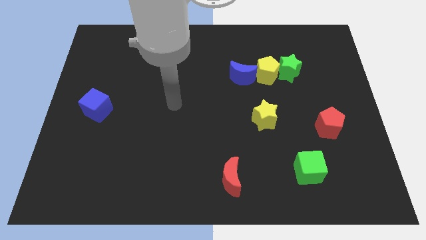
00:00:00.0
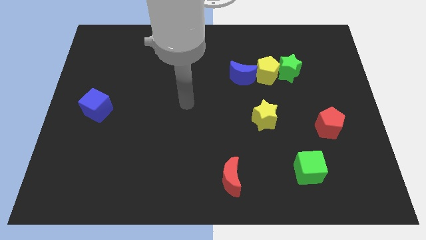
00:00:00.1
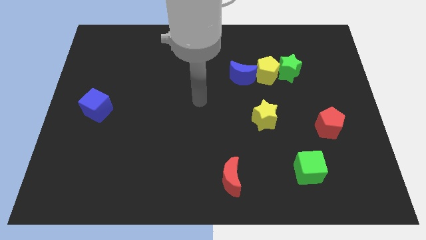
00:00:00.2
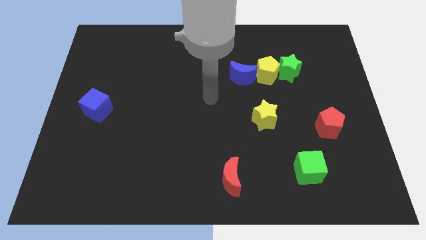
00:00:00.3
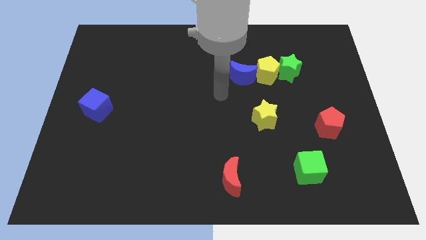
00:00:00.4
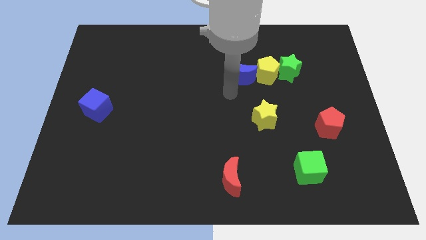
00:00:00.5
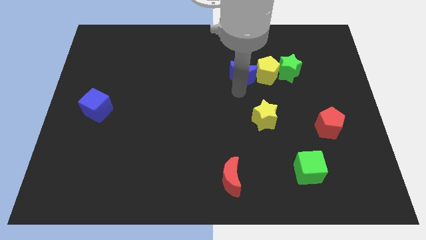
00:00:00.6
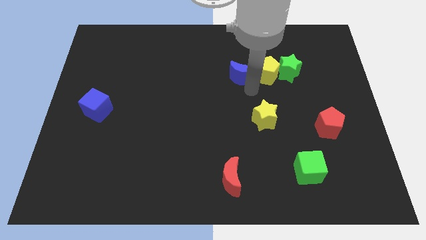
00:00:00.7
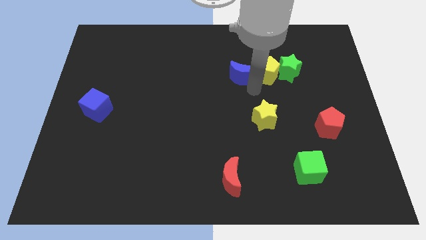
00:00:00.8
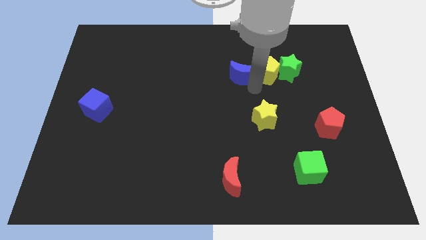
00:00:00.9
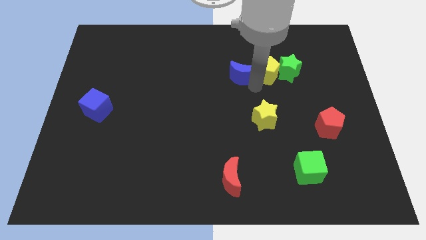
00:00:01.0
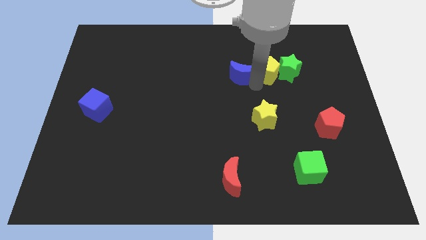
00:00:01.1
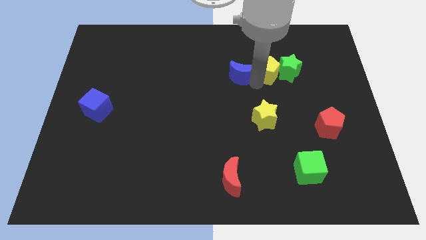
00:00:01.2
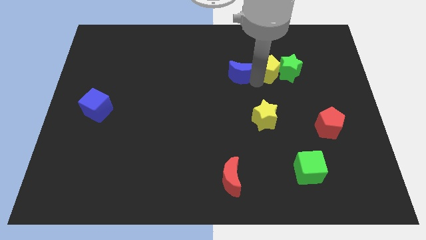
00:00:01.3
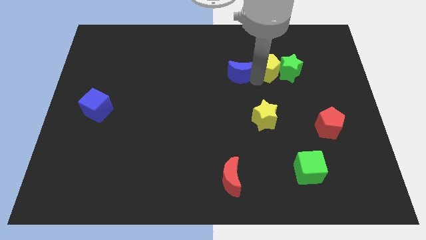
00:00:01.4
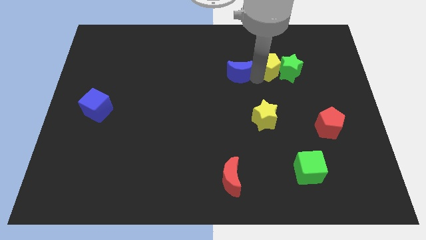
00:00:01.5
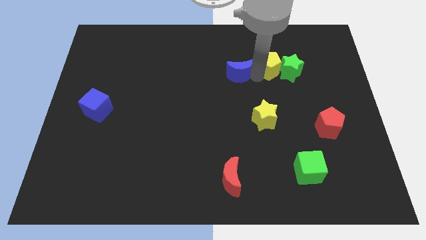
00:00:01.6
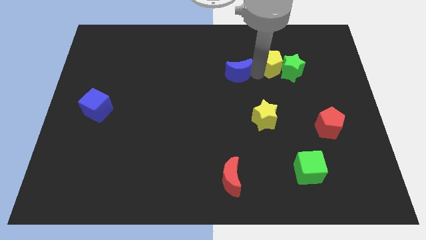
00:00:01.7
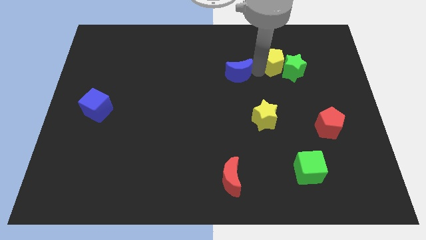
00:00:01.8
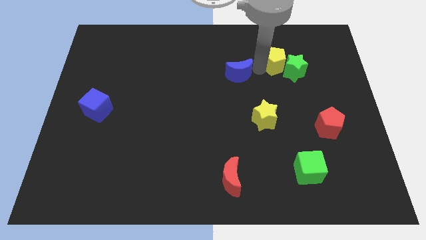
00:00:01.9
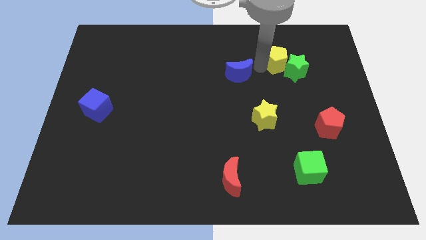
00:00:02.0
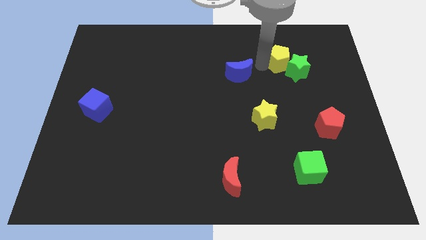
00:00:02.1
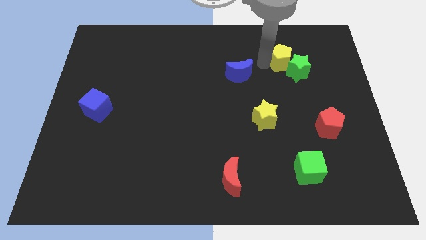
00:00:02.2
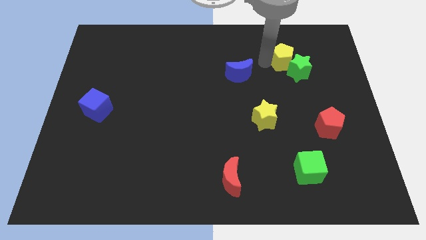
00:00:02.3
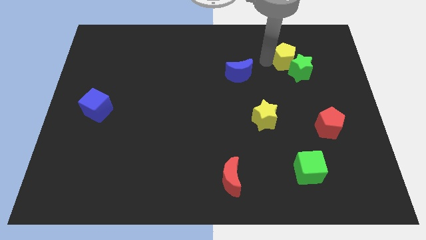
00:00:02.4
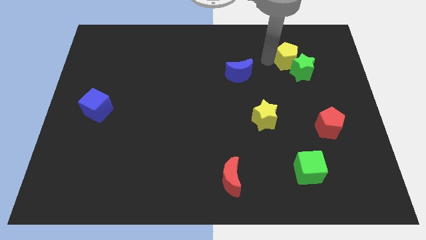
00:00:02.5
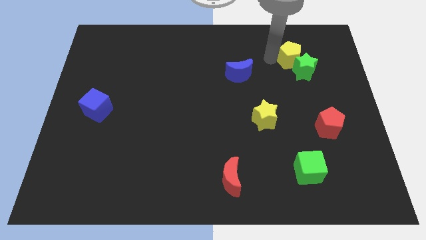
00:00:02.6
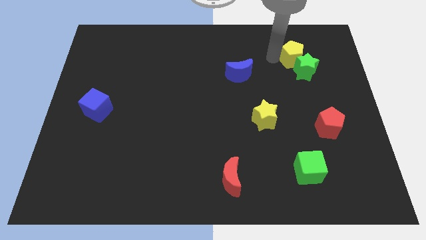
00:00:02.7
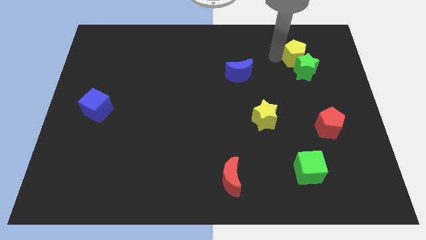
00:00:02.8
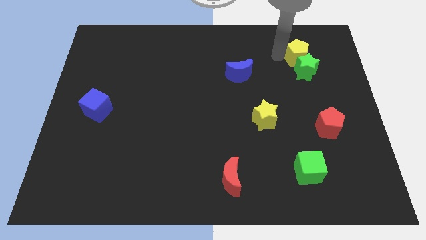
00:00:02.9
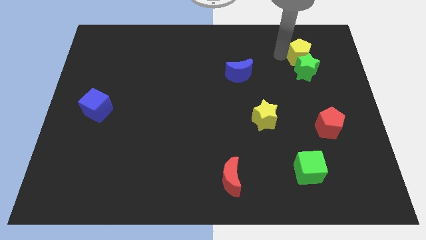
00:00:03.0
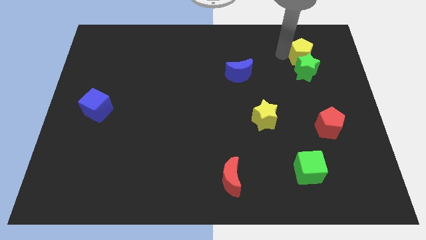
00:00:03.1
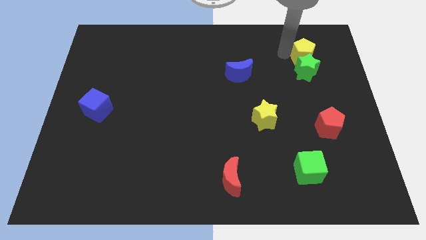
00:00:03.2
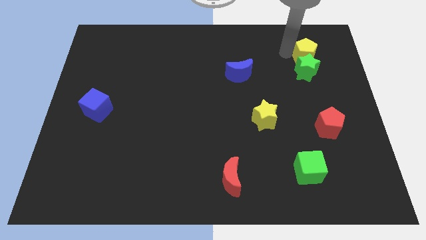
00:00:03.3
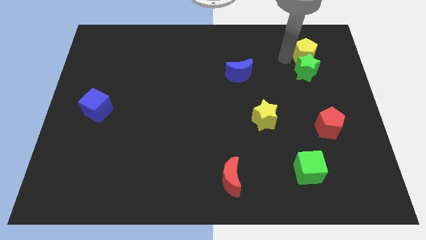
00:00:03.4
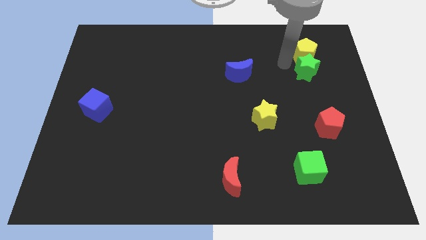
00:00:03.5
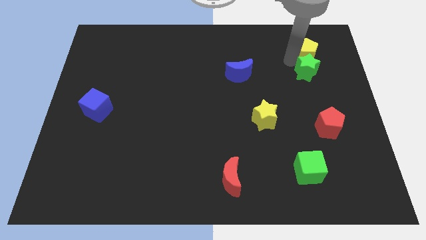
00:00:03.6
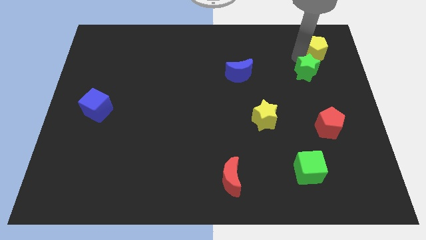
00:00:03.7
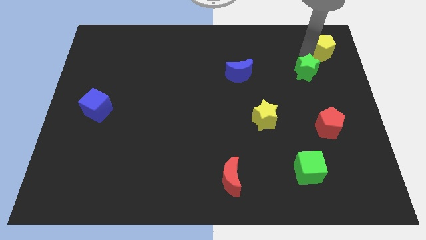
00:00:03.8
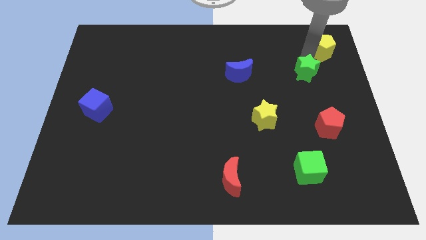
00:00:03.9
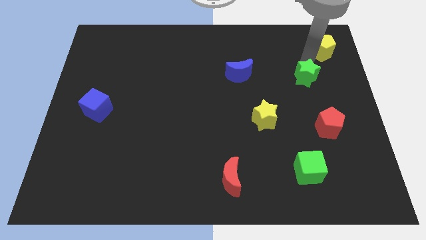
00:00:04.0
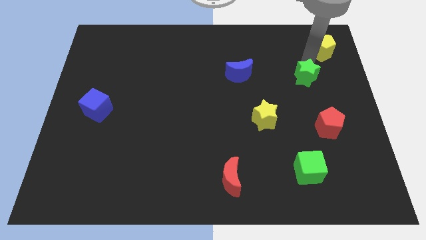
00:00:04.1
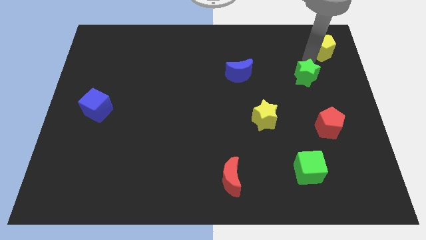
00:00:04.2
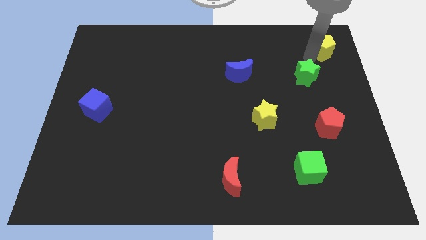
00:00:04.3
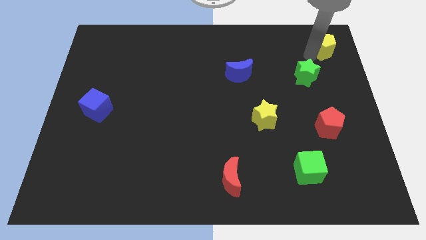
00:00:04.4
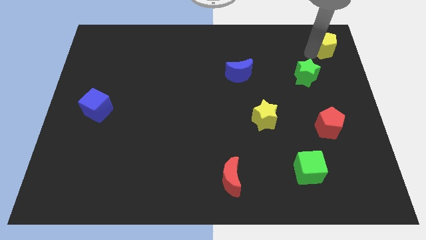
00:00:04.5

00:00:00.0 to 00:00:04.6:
move the yellow pentagon to the upper right corner

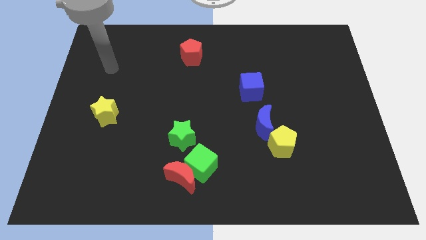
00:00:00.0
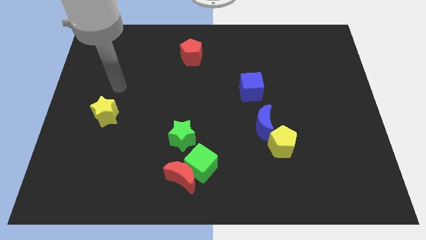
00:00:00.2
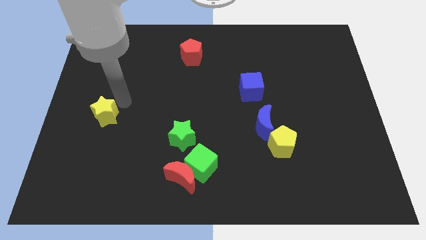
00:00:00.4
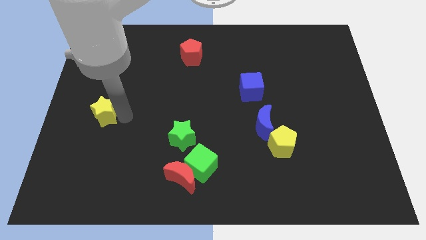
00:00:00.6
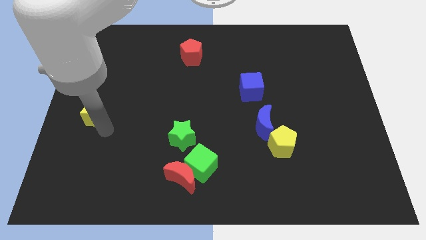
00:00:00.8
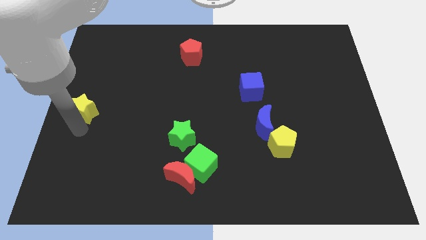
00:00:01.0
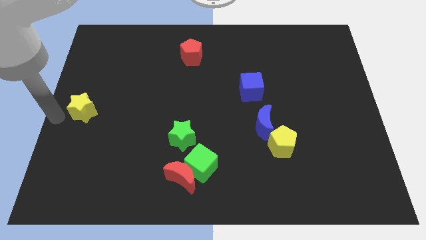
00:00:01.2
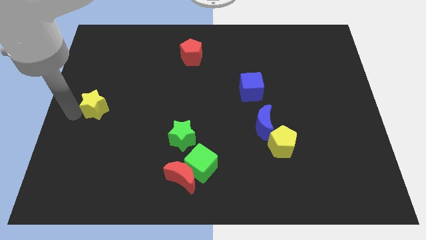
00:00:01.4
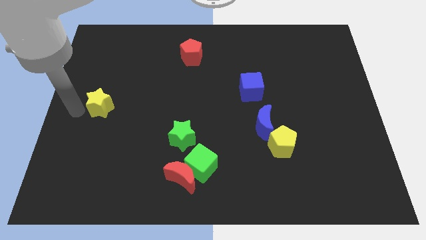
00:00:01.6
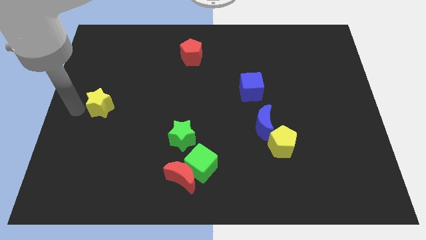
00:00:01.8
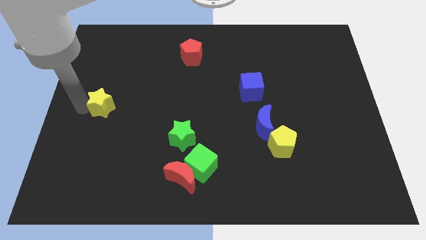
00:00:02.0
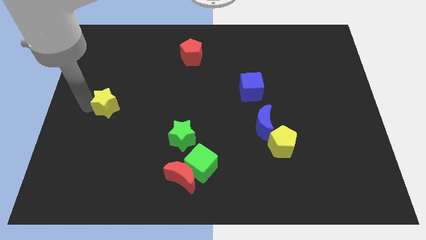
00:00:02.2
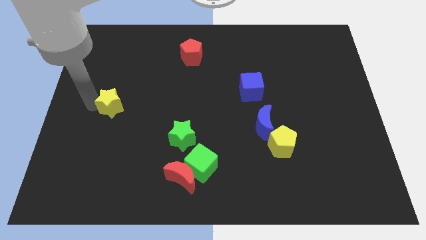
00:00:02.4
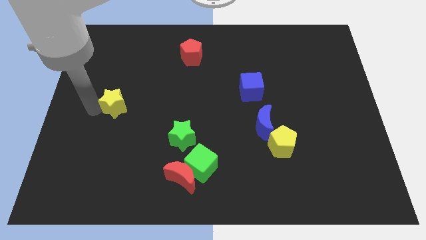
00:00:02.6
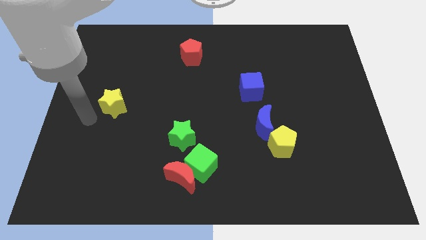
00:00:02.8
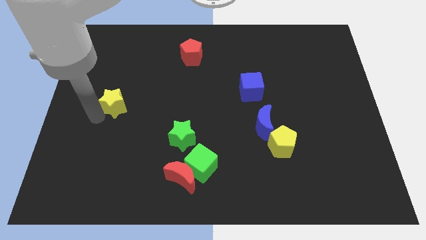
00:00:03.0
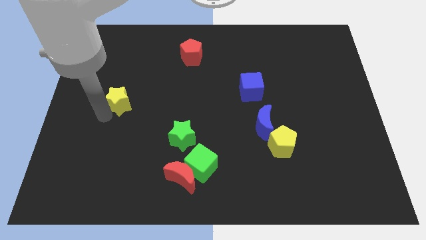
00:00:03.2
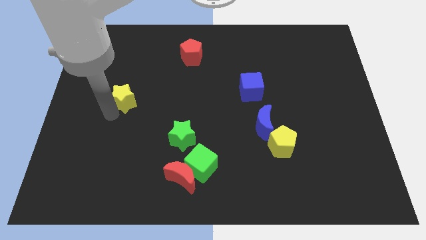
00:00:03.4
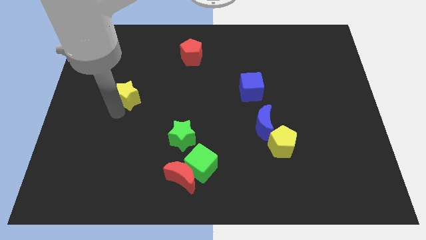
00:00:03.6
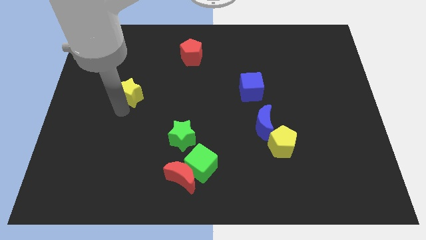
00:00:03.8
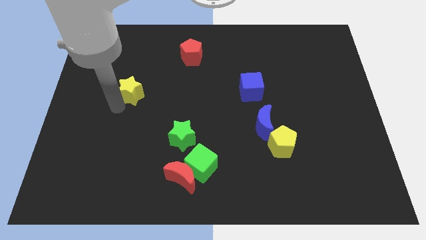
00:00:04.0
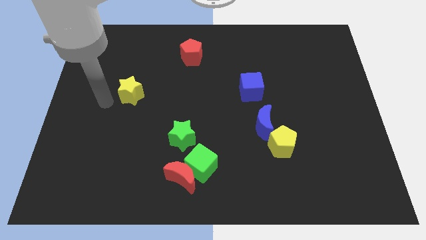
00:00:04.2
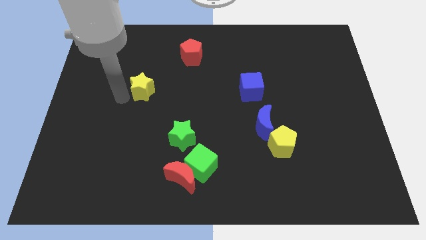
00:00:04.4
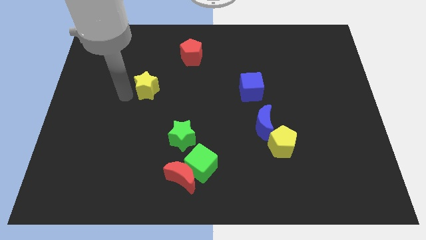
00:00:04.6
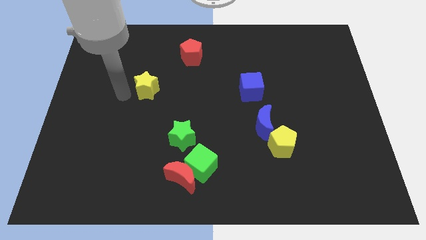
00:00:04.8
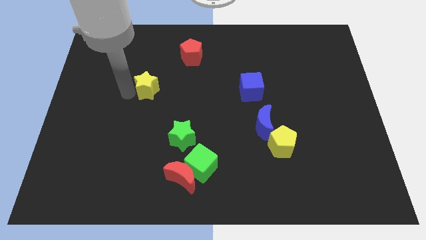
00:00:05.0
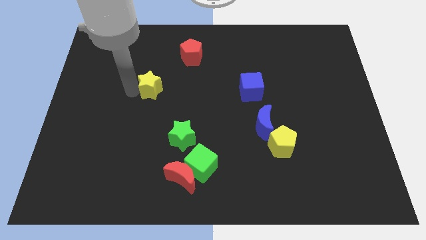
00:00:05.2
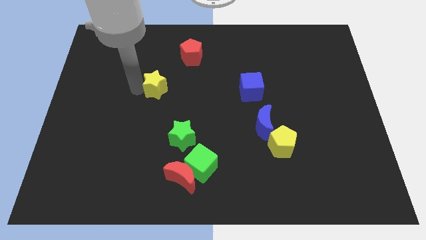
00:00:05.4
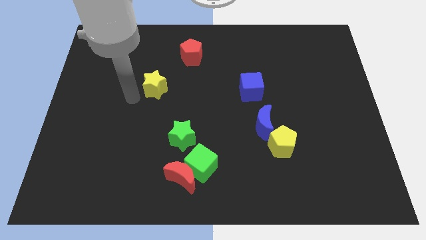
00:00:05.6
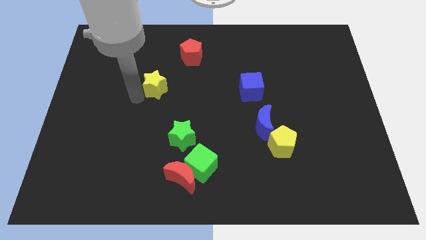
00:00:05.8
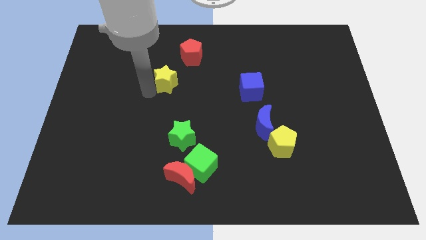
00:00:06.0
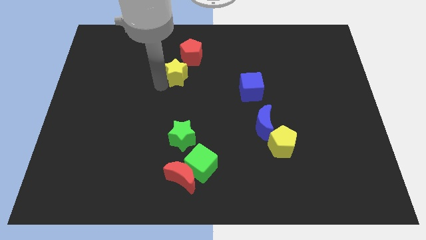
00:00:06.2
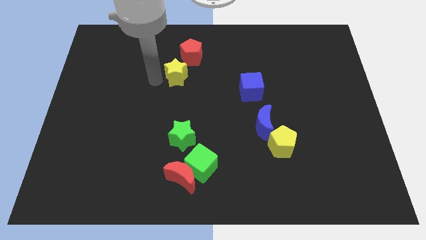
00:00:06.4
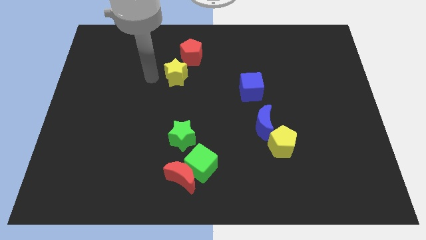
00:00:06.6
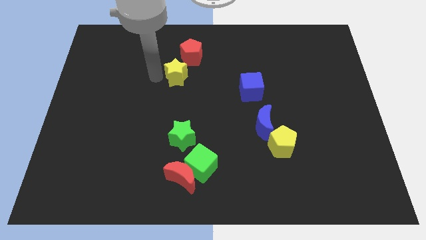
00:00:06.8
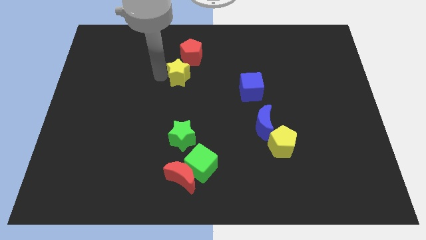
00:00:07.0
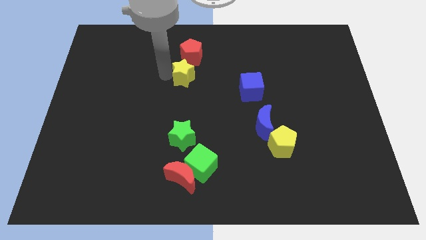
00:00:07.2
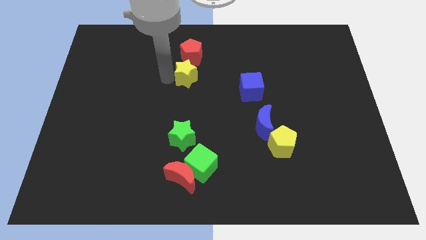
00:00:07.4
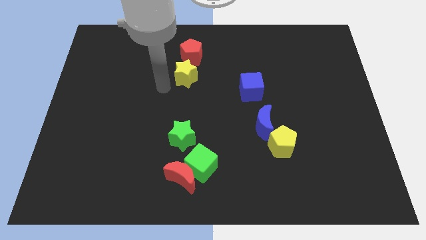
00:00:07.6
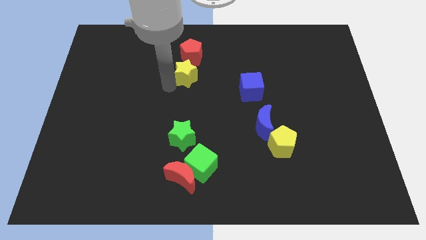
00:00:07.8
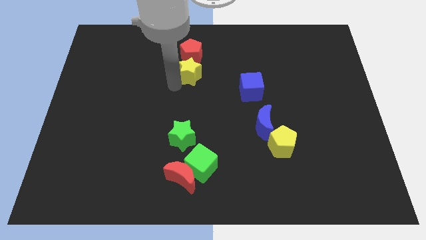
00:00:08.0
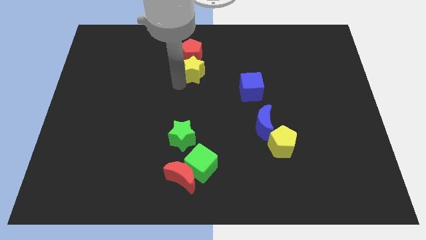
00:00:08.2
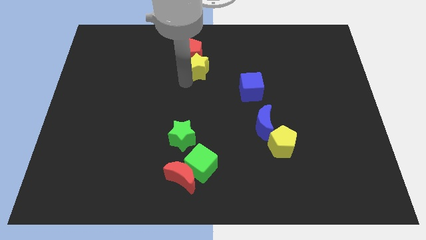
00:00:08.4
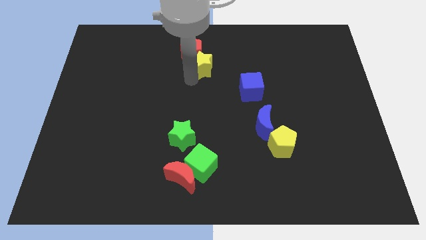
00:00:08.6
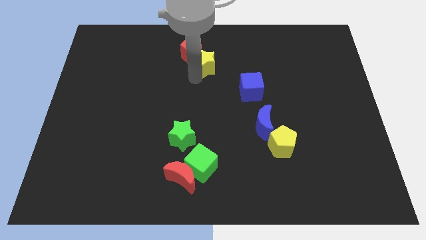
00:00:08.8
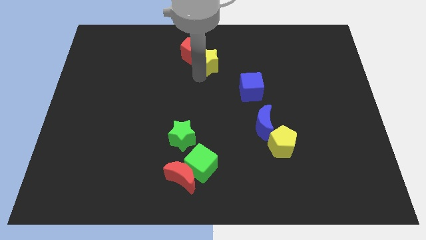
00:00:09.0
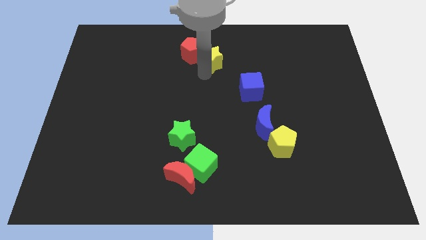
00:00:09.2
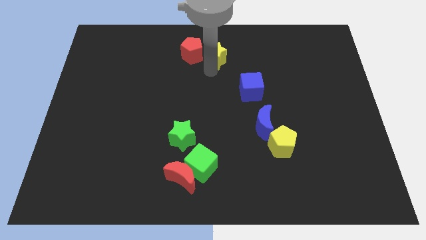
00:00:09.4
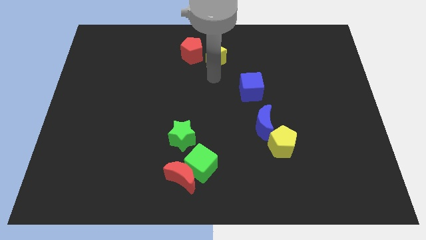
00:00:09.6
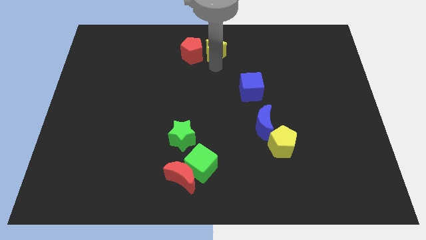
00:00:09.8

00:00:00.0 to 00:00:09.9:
move the yellow star to the top side
